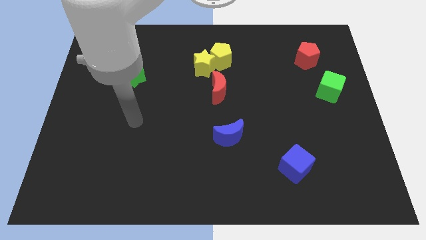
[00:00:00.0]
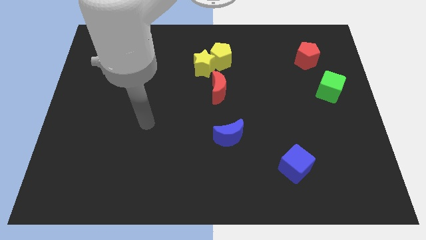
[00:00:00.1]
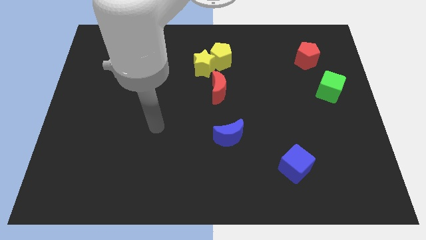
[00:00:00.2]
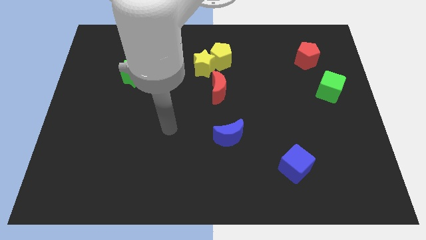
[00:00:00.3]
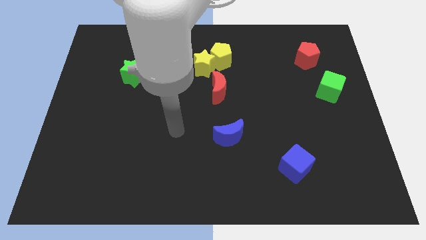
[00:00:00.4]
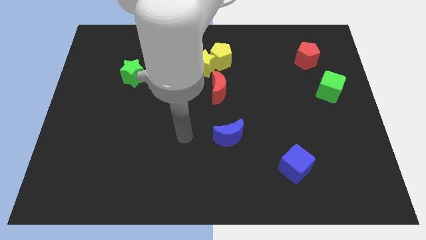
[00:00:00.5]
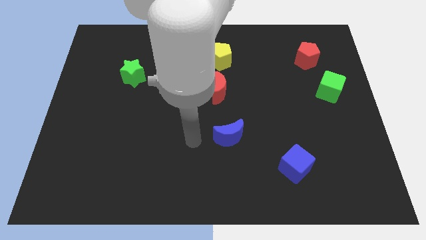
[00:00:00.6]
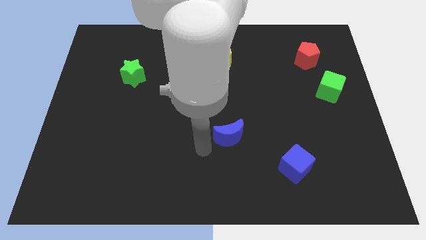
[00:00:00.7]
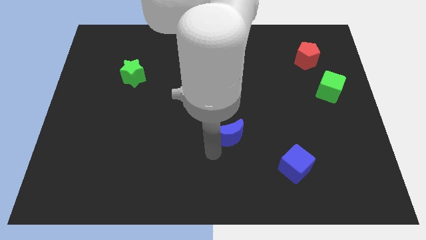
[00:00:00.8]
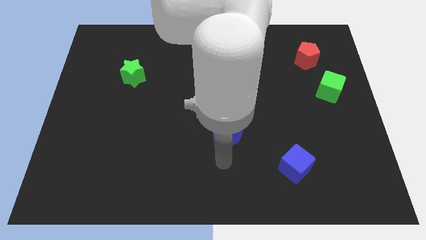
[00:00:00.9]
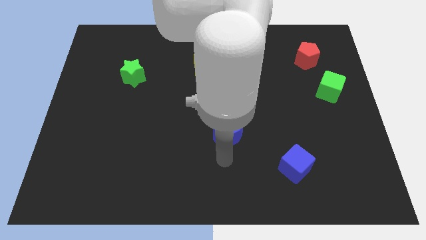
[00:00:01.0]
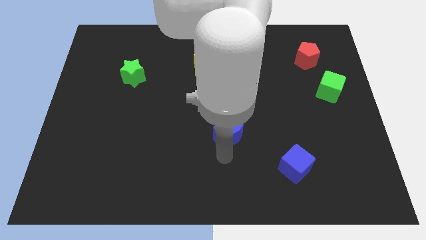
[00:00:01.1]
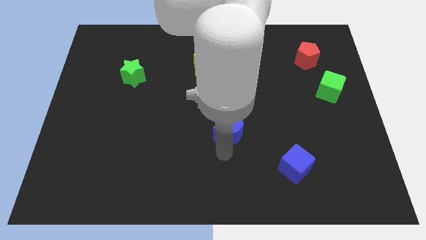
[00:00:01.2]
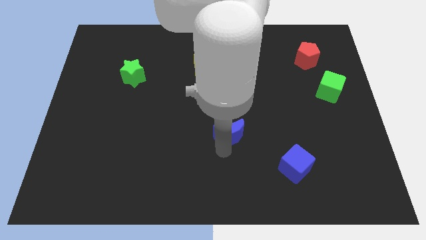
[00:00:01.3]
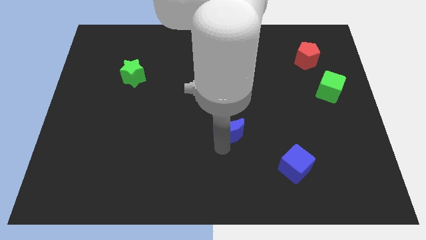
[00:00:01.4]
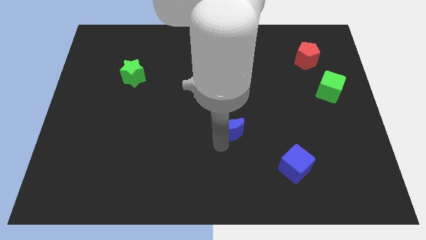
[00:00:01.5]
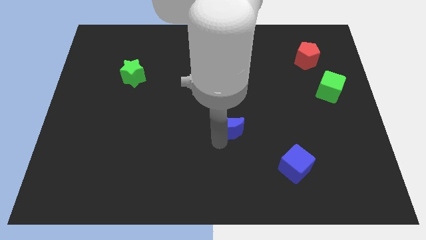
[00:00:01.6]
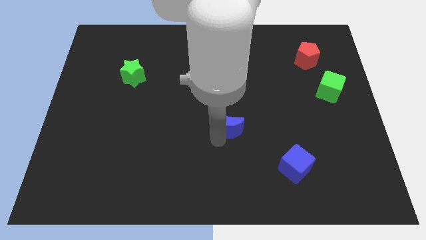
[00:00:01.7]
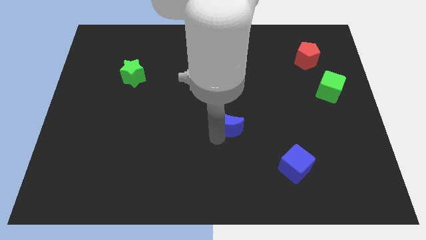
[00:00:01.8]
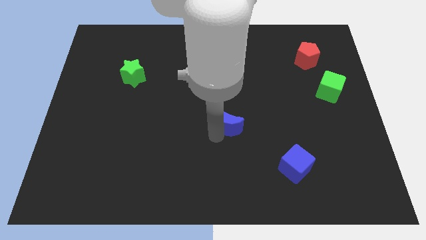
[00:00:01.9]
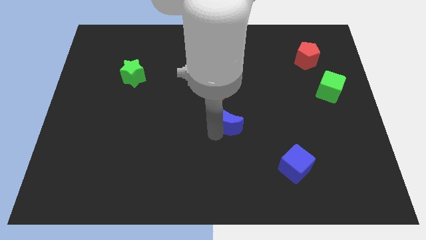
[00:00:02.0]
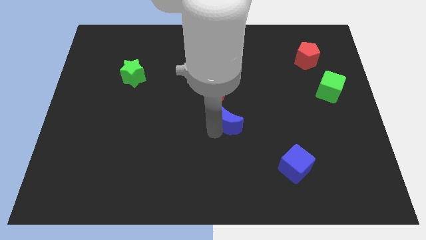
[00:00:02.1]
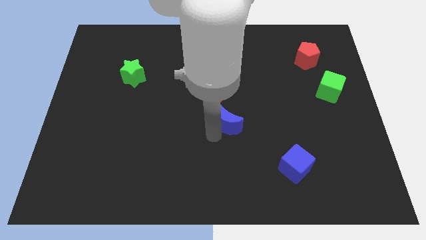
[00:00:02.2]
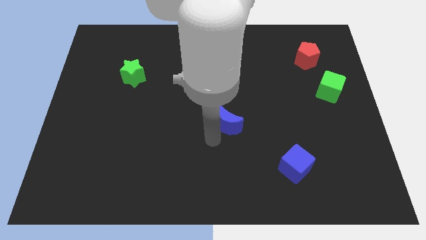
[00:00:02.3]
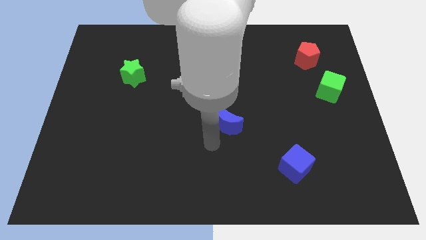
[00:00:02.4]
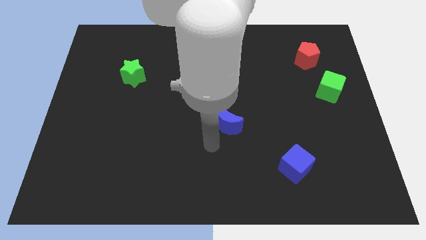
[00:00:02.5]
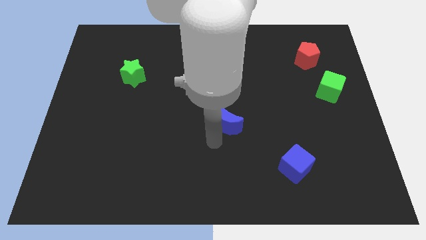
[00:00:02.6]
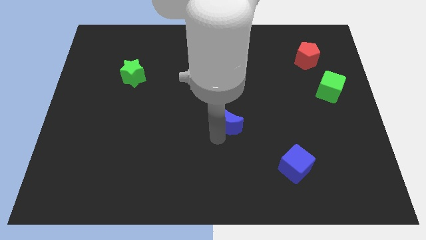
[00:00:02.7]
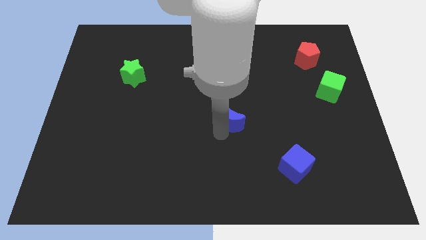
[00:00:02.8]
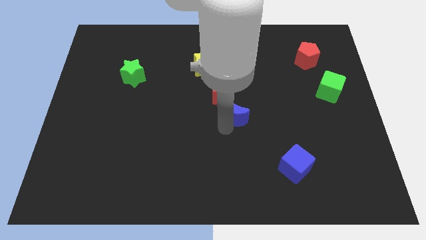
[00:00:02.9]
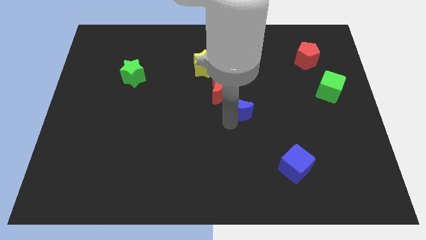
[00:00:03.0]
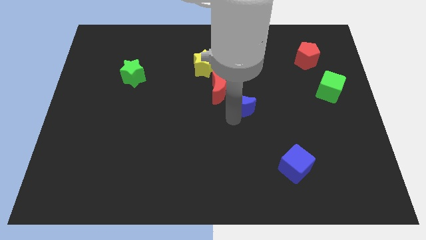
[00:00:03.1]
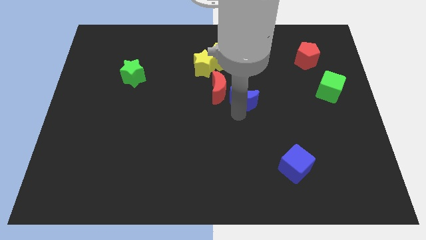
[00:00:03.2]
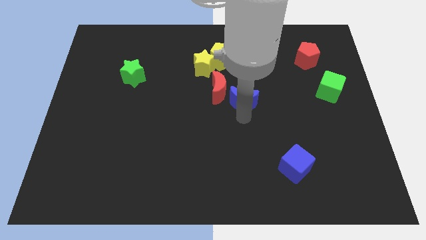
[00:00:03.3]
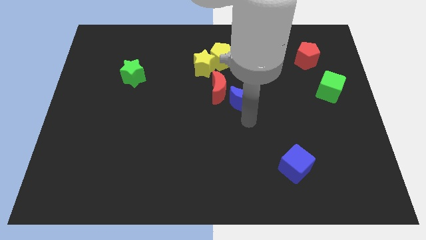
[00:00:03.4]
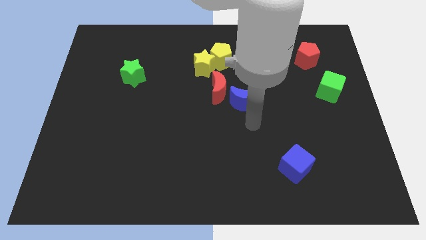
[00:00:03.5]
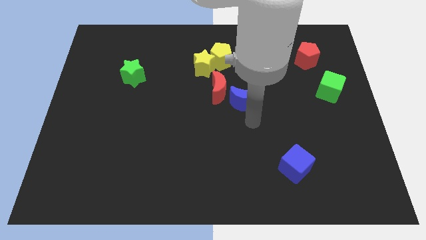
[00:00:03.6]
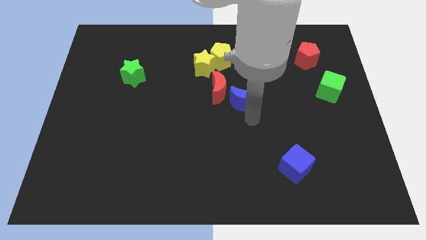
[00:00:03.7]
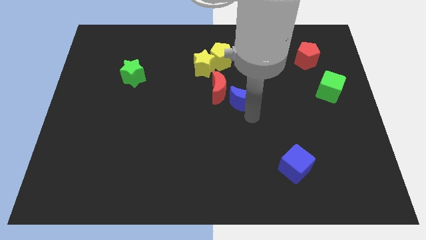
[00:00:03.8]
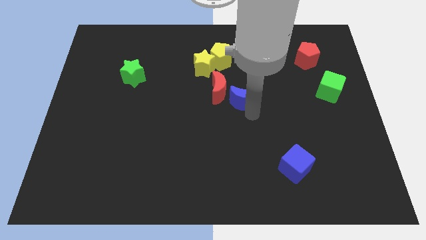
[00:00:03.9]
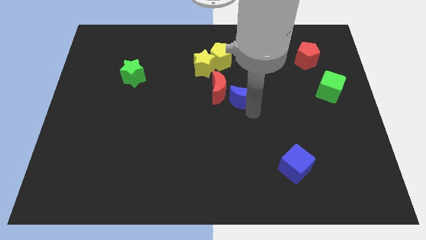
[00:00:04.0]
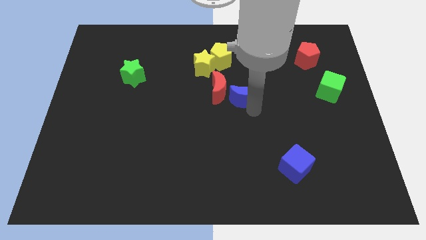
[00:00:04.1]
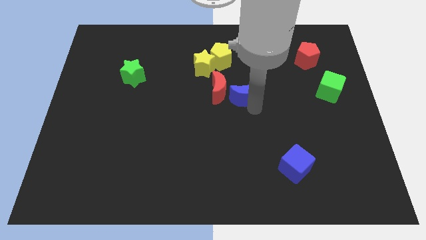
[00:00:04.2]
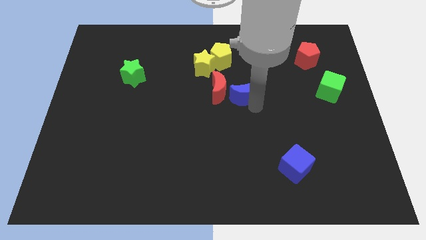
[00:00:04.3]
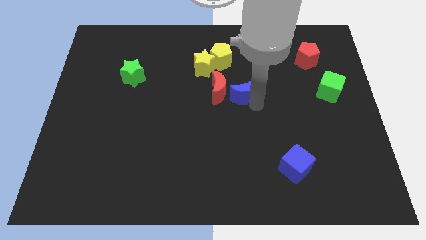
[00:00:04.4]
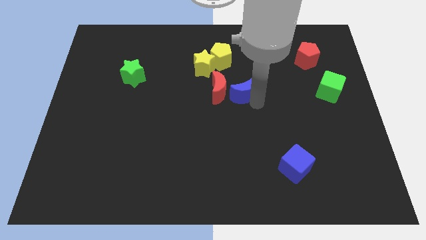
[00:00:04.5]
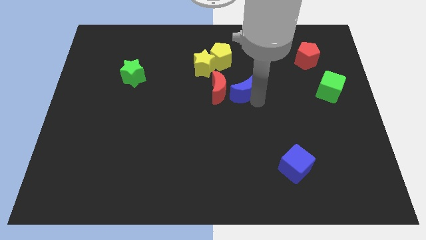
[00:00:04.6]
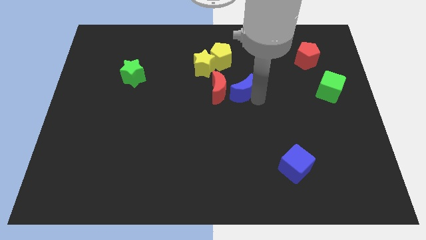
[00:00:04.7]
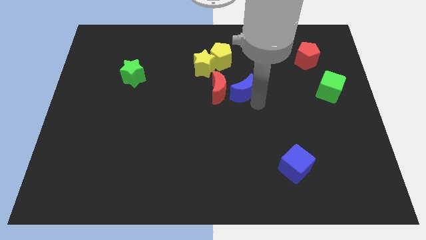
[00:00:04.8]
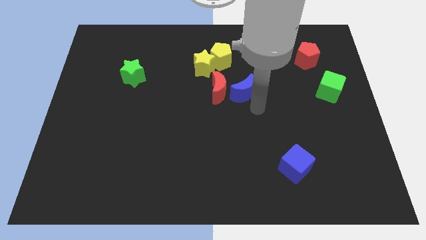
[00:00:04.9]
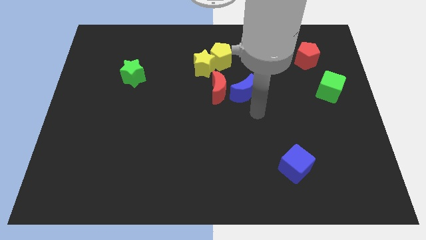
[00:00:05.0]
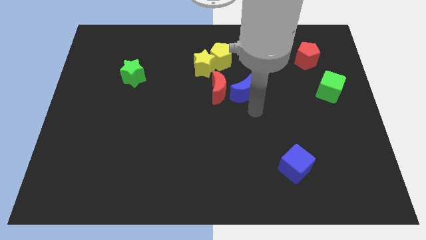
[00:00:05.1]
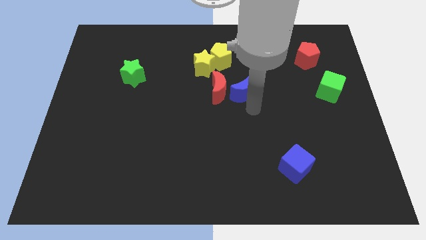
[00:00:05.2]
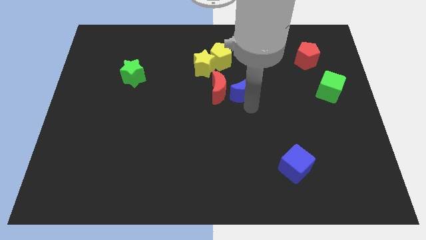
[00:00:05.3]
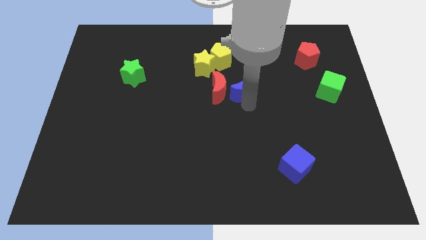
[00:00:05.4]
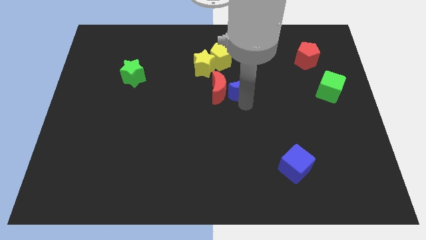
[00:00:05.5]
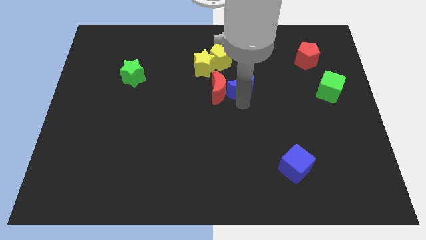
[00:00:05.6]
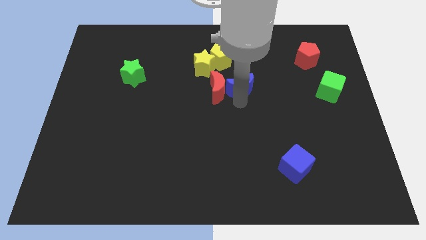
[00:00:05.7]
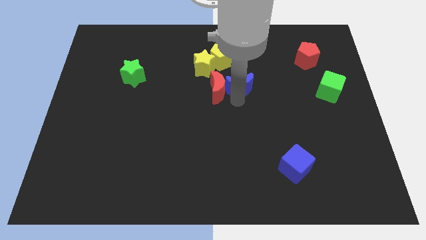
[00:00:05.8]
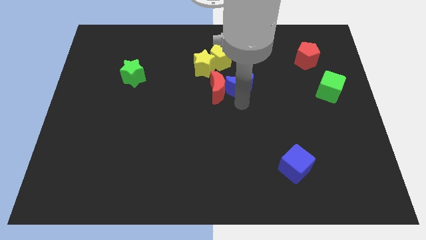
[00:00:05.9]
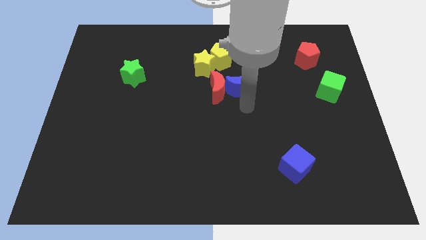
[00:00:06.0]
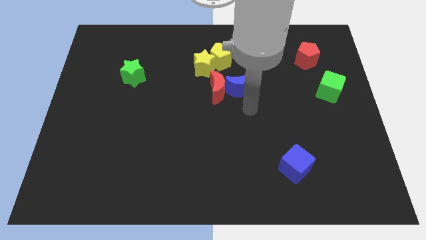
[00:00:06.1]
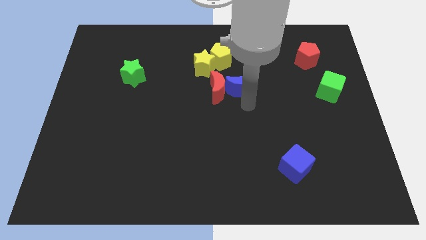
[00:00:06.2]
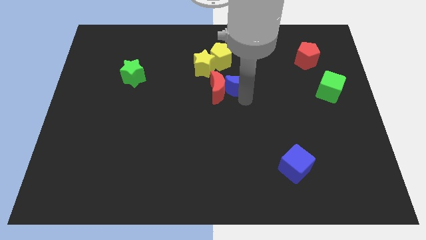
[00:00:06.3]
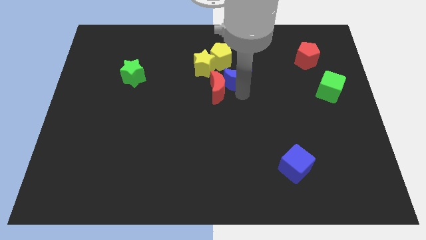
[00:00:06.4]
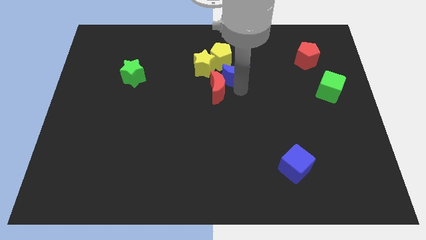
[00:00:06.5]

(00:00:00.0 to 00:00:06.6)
slide the blue moon above the red moon

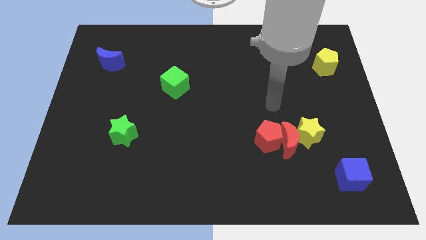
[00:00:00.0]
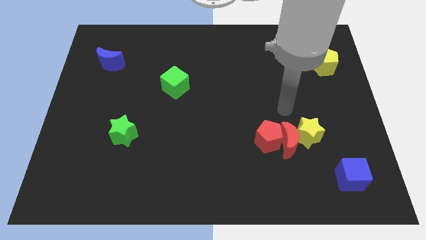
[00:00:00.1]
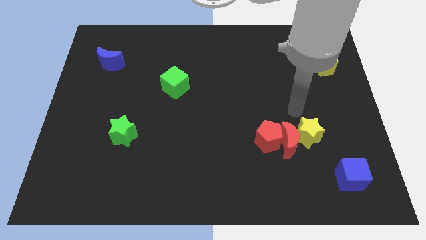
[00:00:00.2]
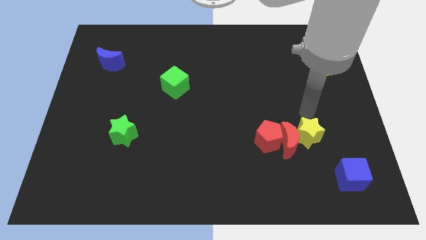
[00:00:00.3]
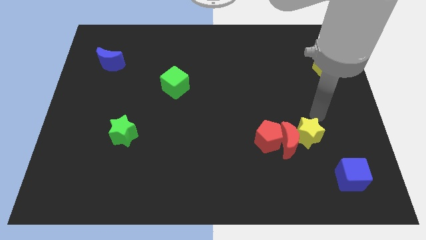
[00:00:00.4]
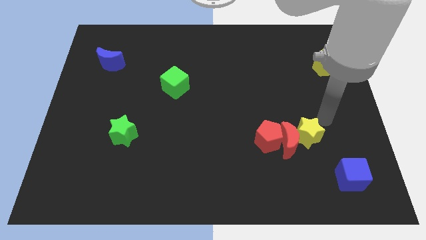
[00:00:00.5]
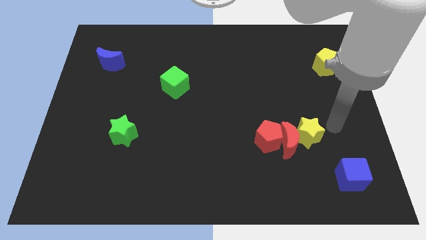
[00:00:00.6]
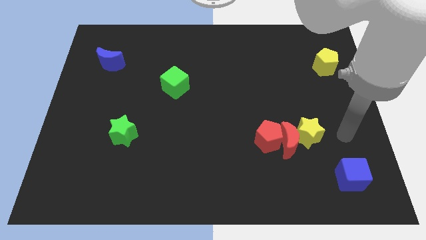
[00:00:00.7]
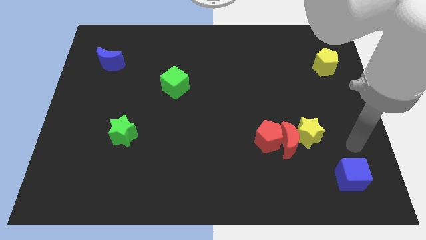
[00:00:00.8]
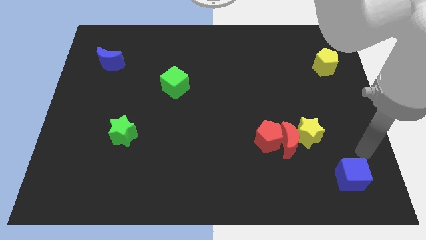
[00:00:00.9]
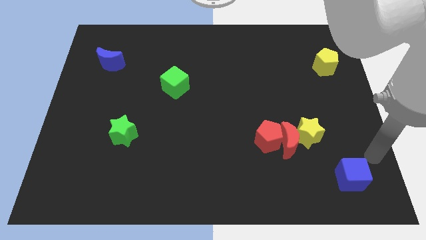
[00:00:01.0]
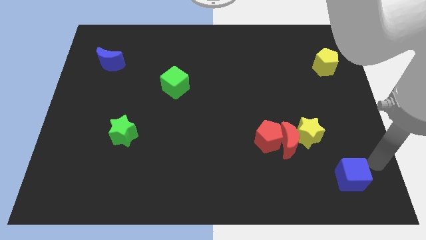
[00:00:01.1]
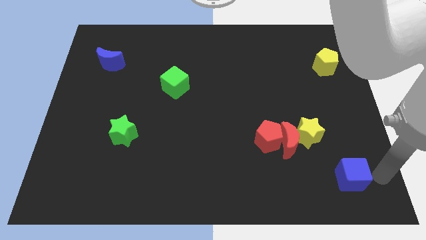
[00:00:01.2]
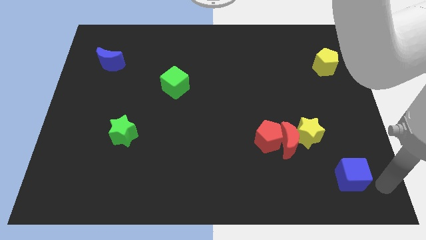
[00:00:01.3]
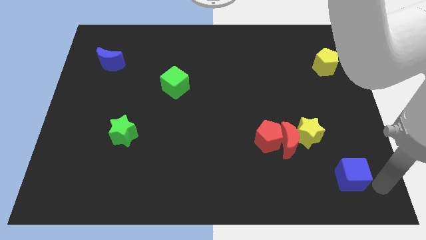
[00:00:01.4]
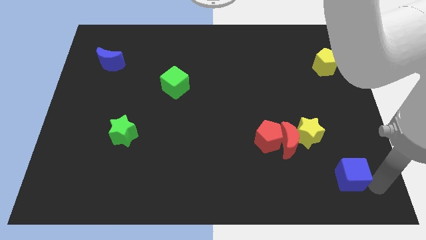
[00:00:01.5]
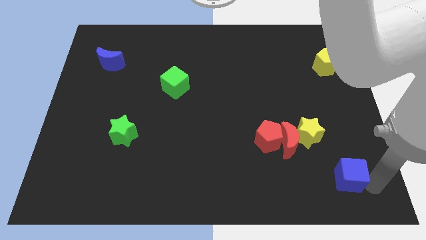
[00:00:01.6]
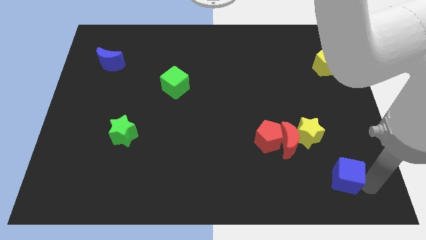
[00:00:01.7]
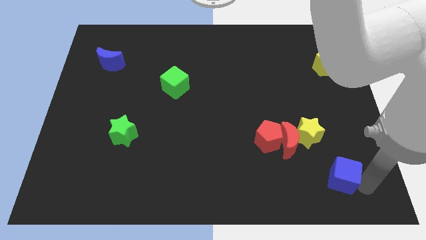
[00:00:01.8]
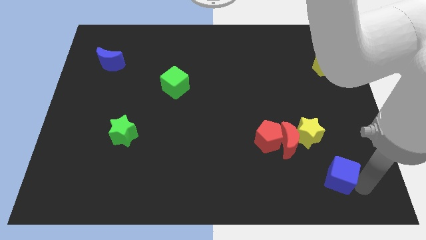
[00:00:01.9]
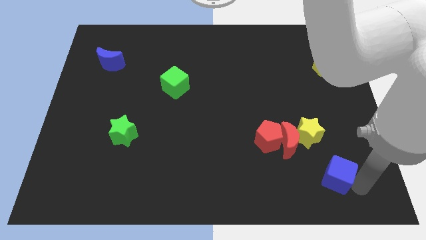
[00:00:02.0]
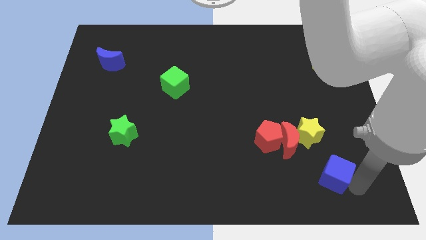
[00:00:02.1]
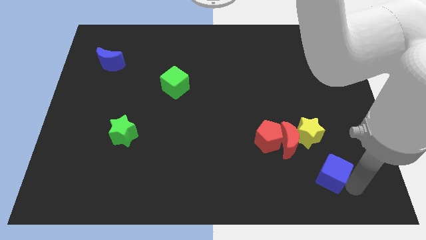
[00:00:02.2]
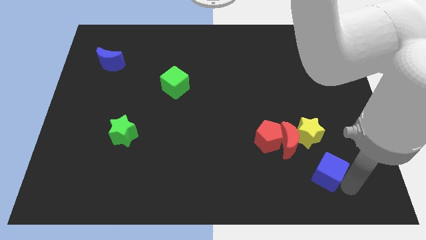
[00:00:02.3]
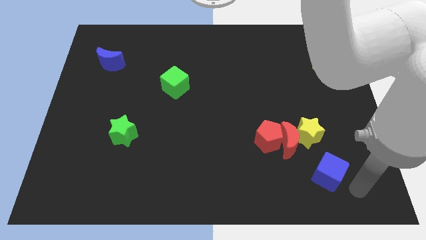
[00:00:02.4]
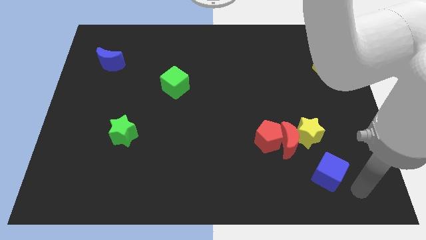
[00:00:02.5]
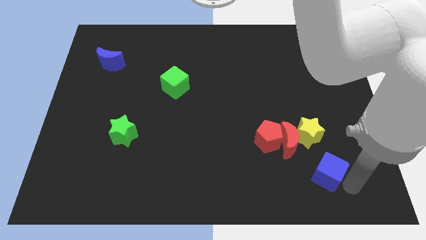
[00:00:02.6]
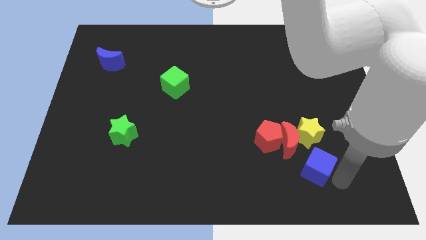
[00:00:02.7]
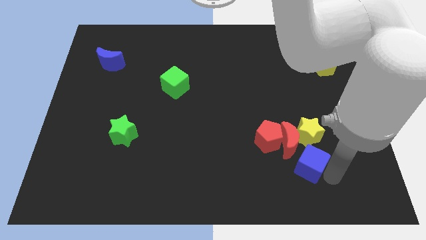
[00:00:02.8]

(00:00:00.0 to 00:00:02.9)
slide the blue cube to the bottom left side of the yellow star
